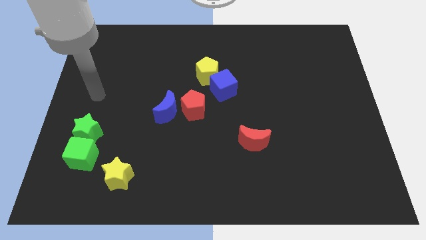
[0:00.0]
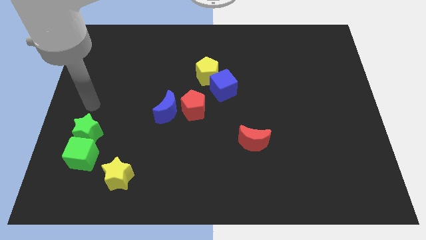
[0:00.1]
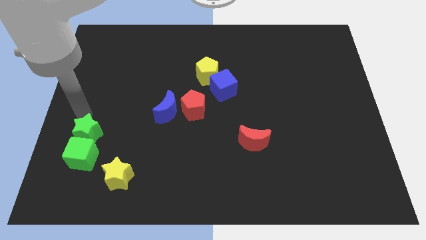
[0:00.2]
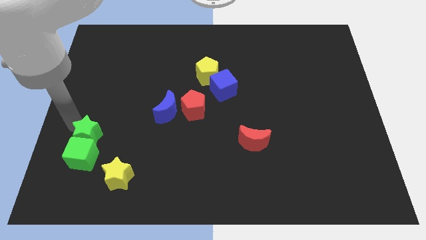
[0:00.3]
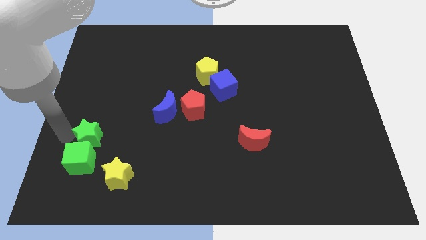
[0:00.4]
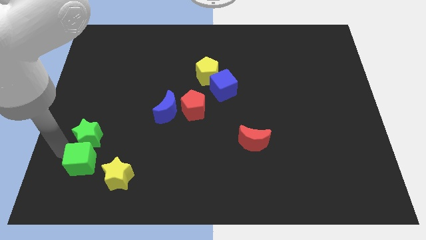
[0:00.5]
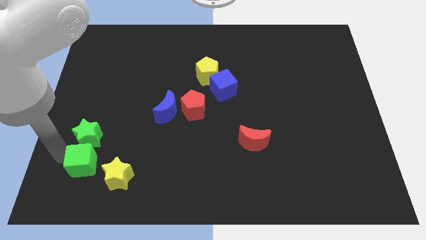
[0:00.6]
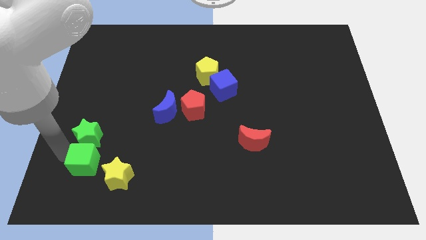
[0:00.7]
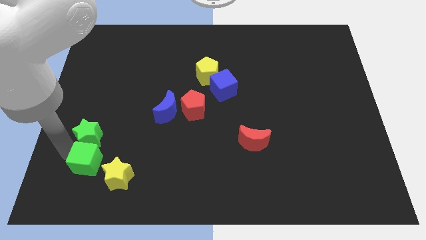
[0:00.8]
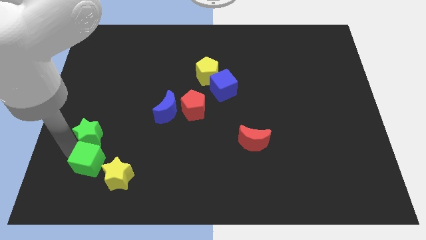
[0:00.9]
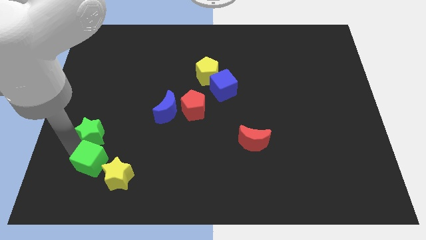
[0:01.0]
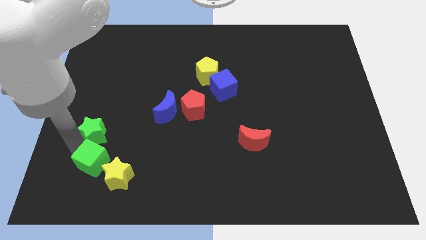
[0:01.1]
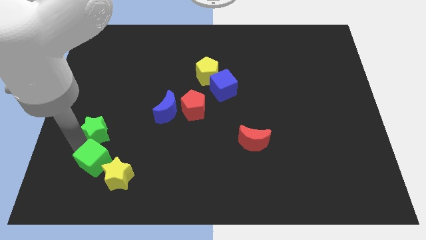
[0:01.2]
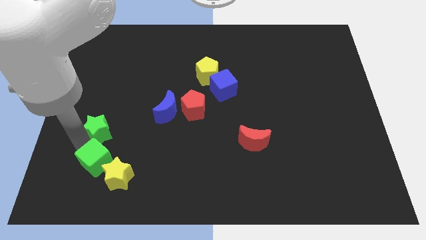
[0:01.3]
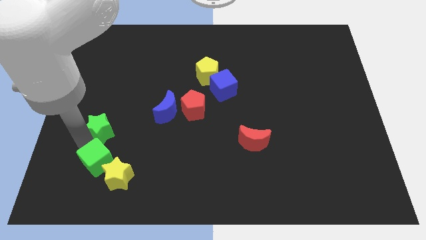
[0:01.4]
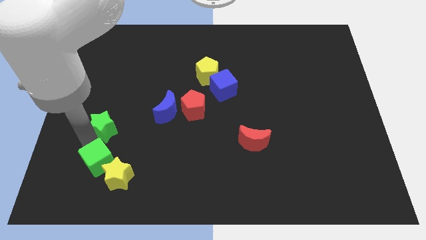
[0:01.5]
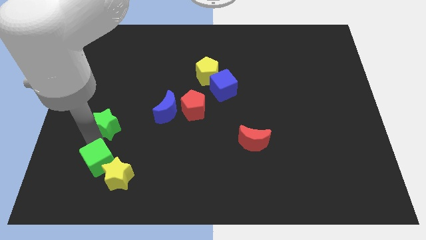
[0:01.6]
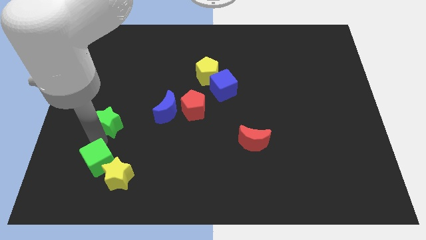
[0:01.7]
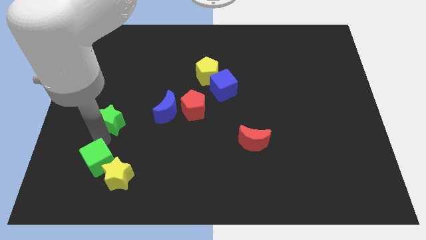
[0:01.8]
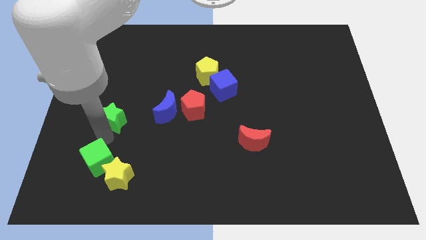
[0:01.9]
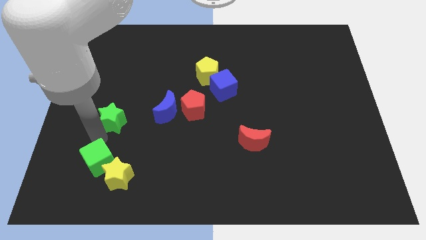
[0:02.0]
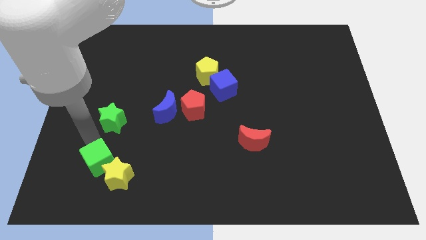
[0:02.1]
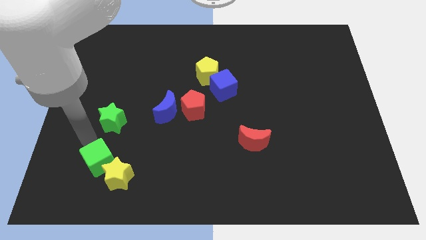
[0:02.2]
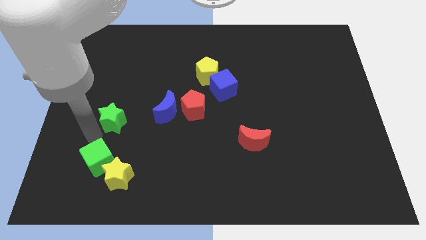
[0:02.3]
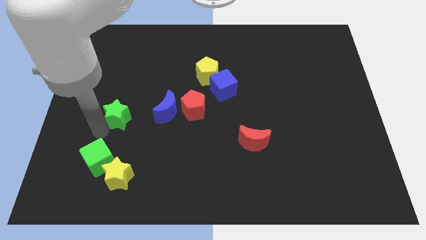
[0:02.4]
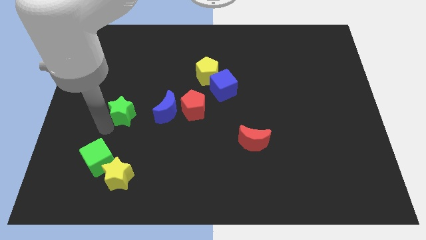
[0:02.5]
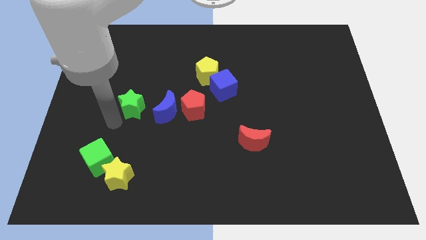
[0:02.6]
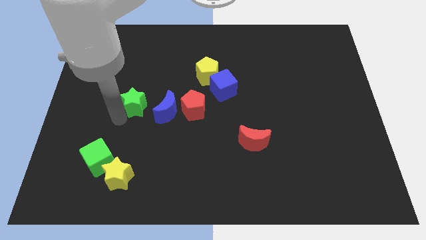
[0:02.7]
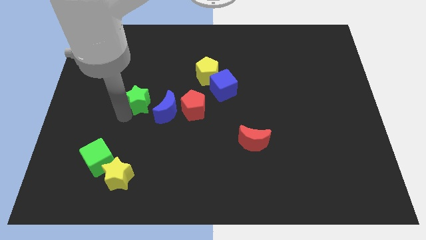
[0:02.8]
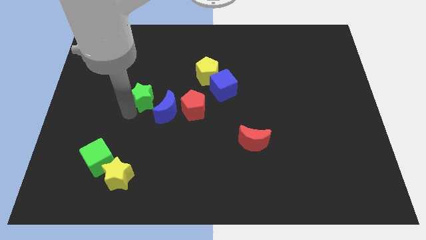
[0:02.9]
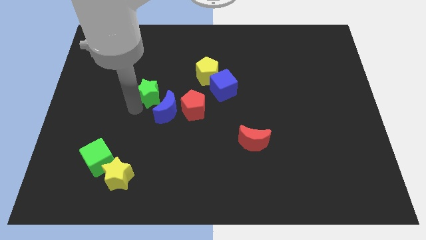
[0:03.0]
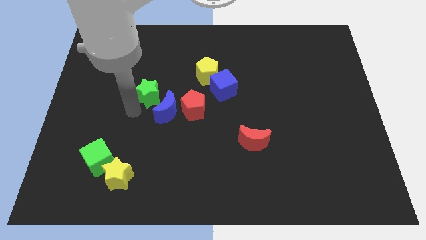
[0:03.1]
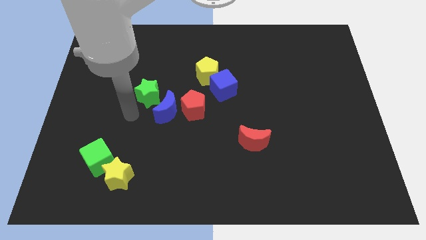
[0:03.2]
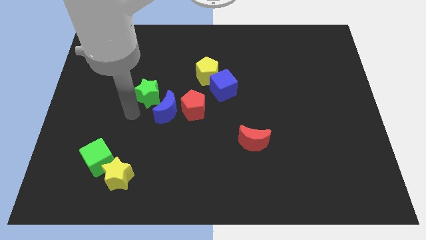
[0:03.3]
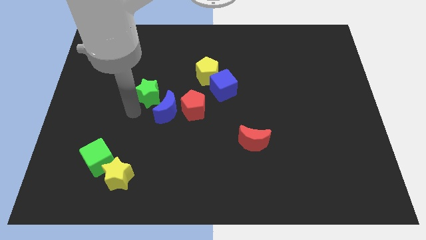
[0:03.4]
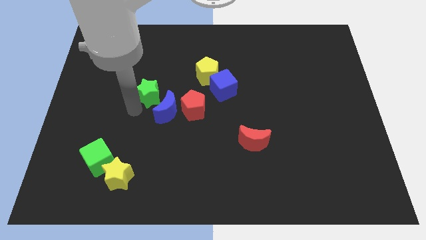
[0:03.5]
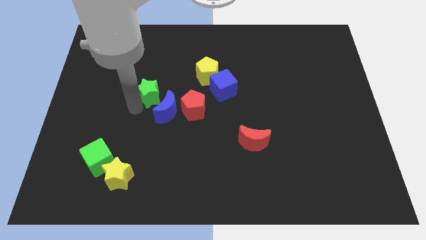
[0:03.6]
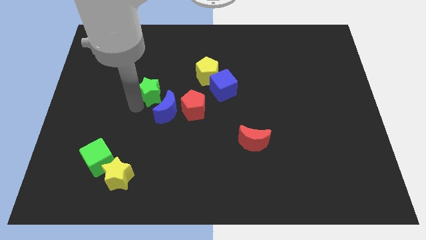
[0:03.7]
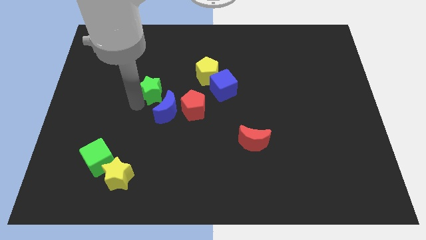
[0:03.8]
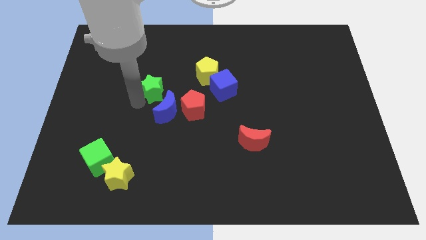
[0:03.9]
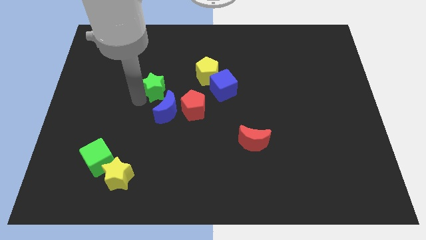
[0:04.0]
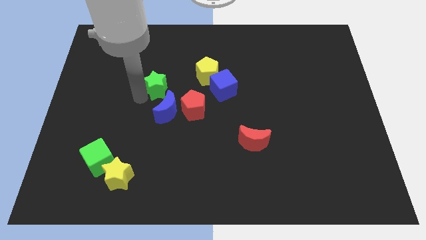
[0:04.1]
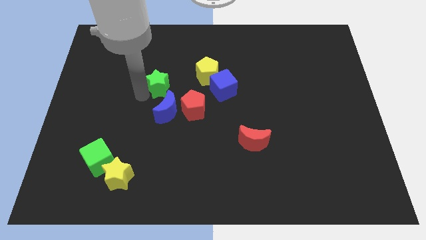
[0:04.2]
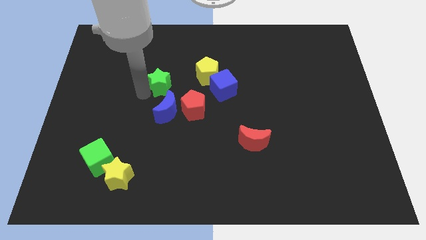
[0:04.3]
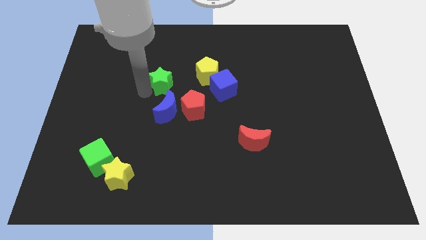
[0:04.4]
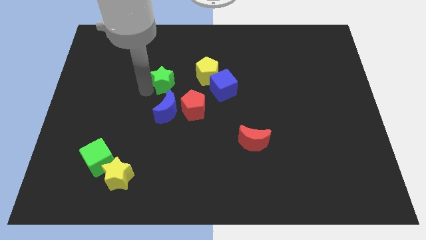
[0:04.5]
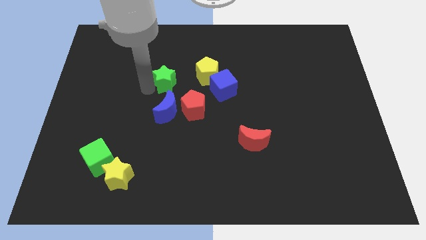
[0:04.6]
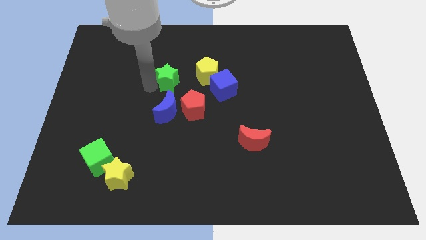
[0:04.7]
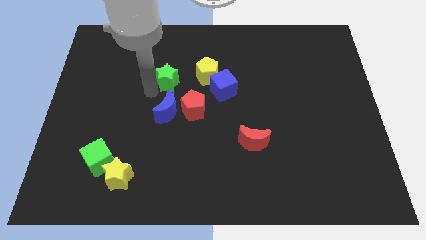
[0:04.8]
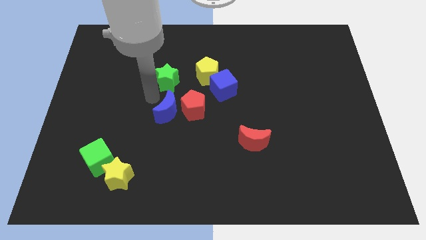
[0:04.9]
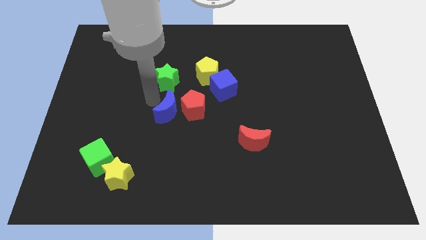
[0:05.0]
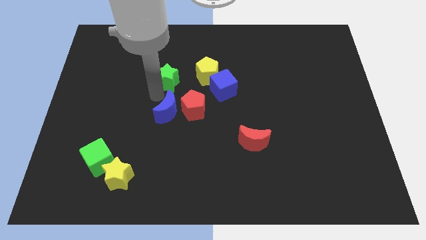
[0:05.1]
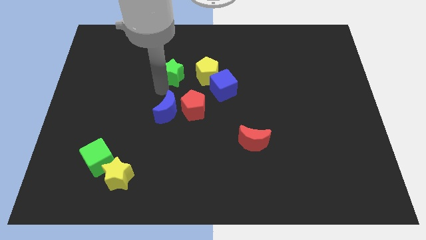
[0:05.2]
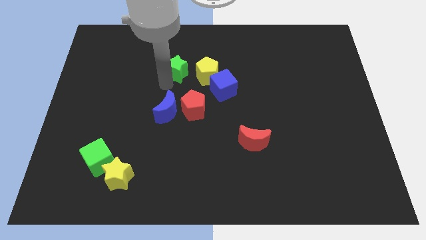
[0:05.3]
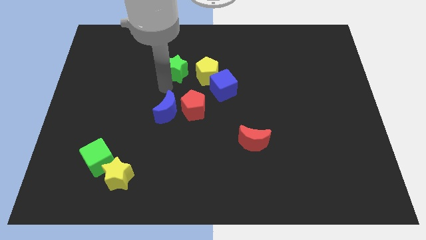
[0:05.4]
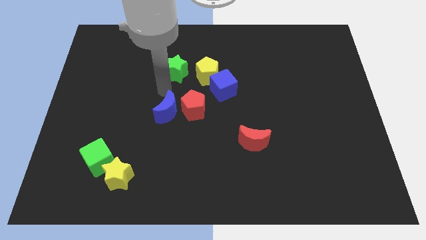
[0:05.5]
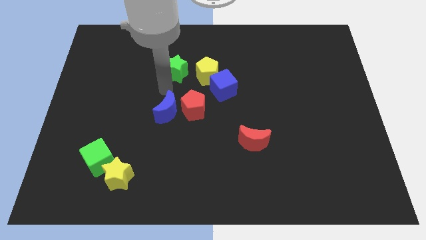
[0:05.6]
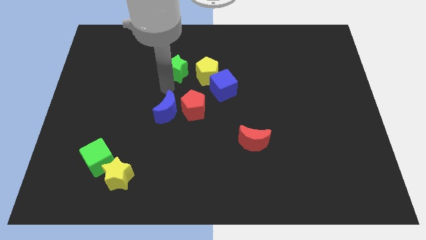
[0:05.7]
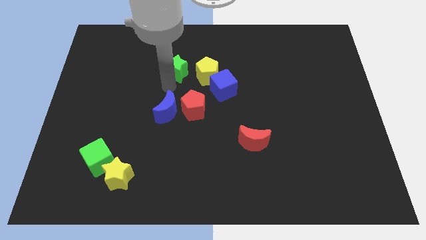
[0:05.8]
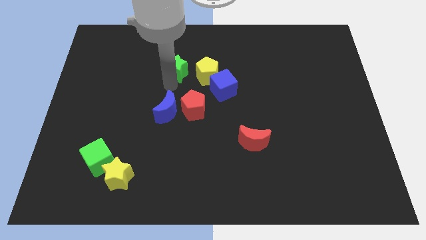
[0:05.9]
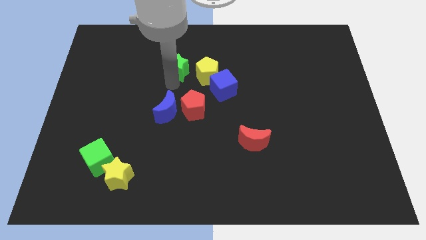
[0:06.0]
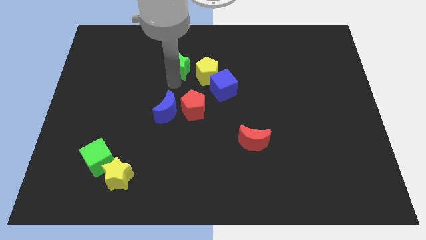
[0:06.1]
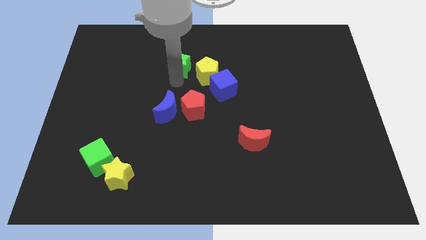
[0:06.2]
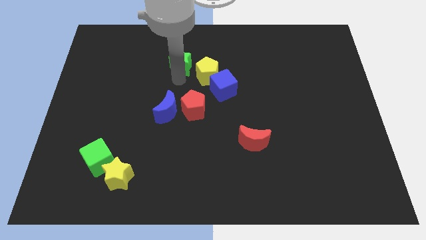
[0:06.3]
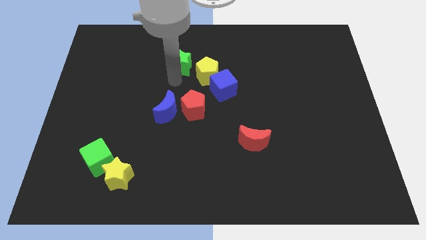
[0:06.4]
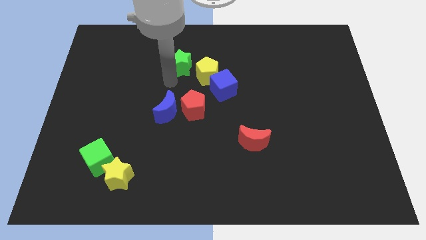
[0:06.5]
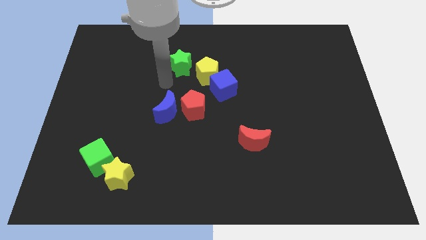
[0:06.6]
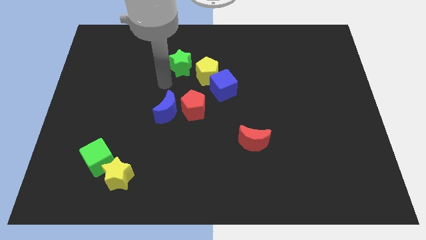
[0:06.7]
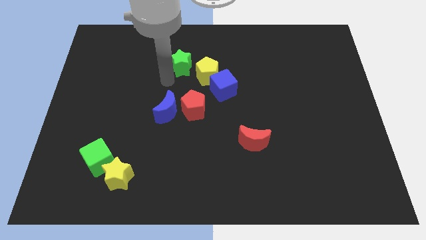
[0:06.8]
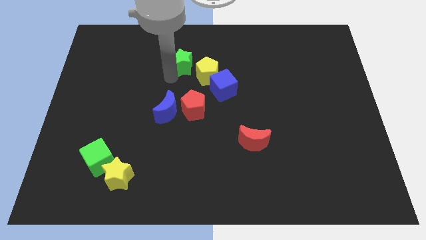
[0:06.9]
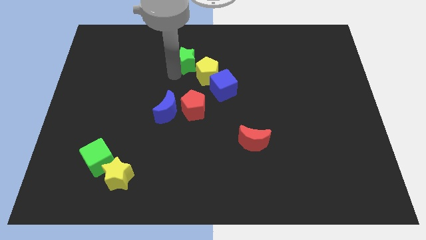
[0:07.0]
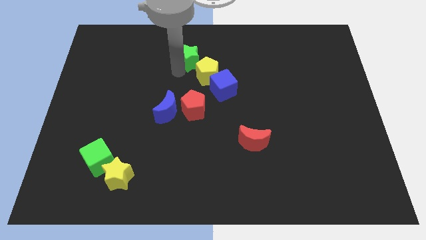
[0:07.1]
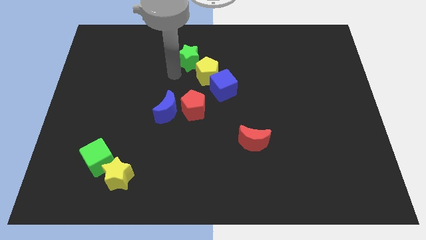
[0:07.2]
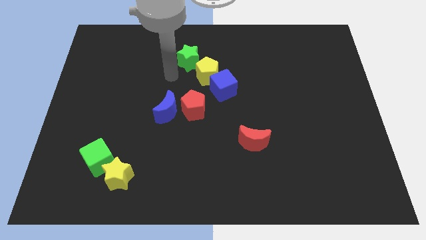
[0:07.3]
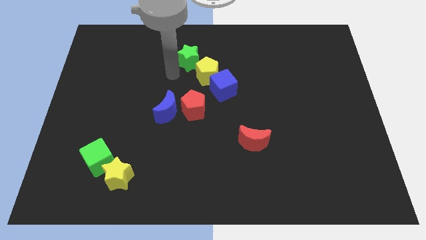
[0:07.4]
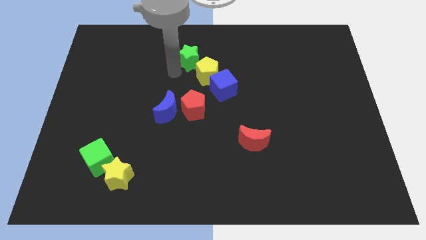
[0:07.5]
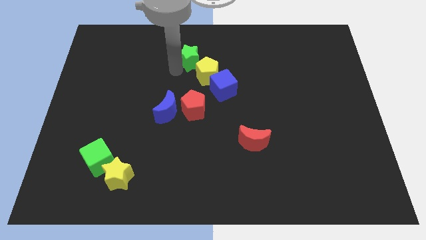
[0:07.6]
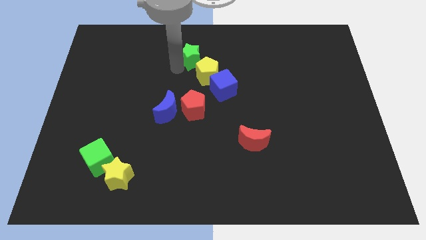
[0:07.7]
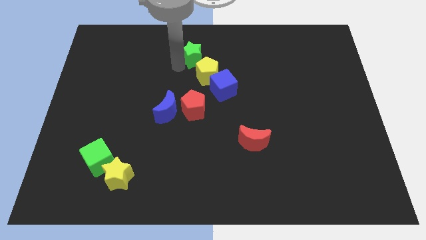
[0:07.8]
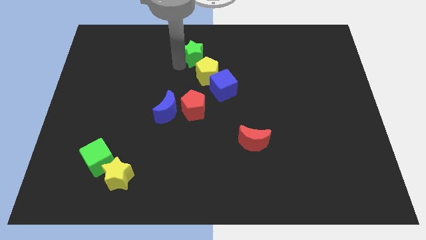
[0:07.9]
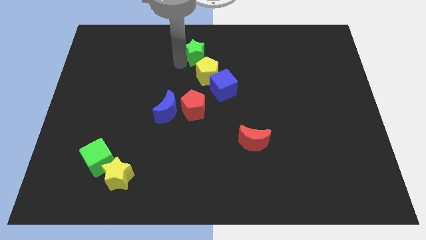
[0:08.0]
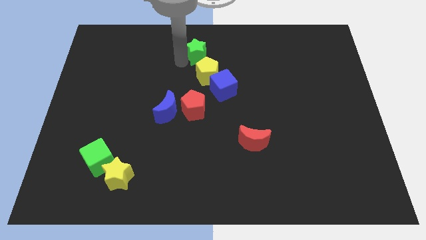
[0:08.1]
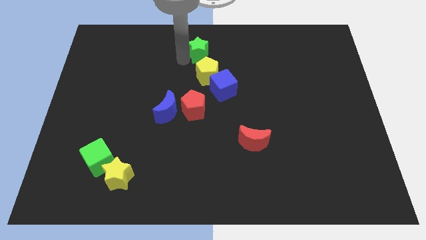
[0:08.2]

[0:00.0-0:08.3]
slide the green star to the towards your base
